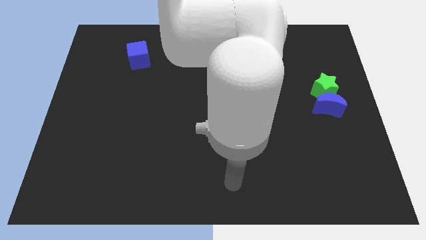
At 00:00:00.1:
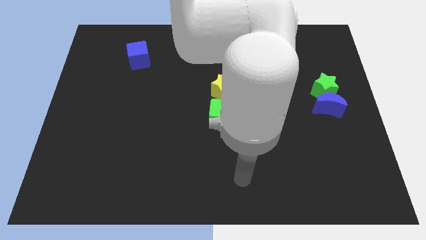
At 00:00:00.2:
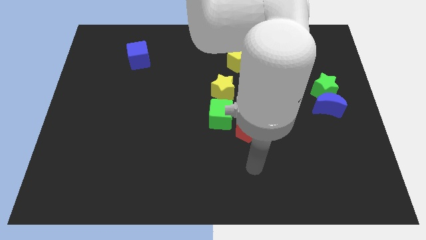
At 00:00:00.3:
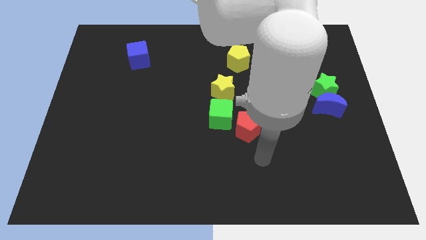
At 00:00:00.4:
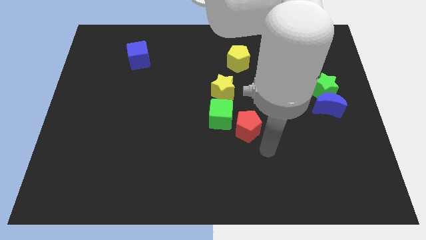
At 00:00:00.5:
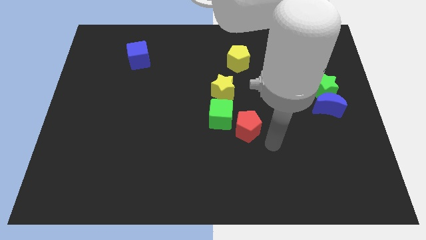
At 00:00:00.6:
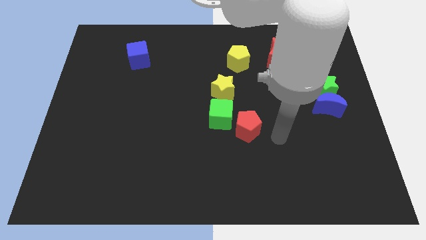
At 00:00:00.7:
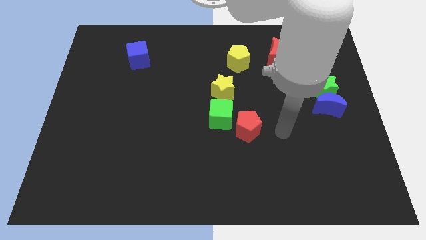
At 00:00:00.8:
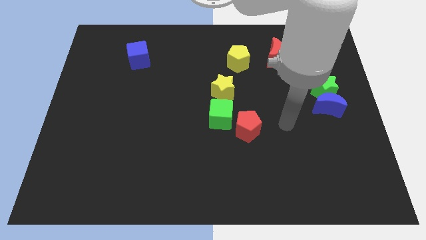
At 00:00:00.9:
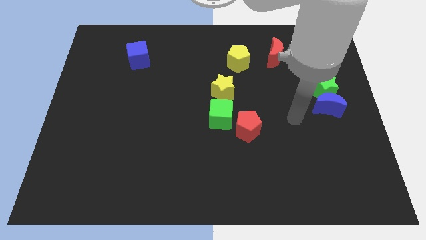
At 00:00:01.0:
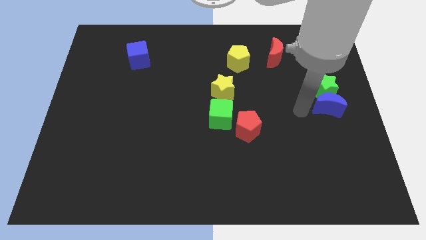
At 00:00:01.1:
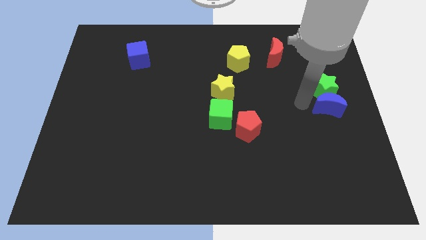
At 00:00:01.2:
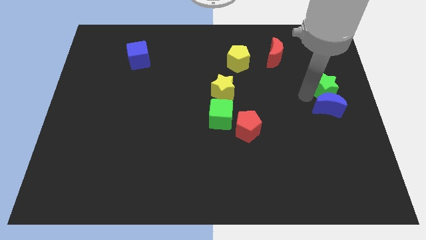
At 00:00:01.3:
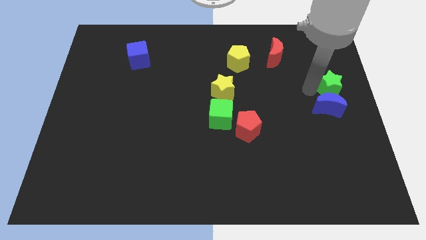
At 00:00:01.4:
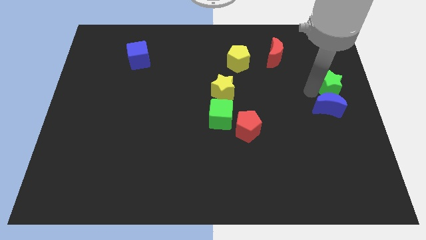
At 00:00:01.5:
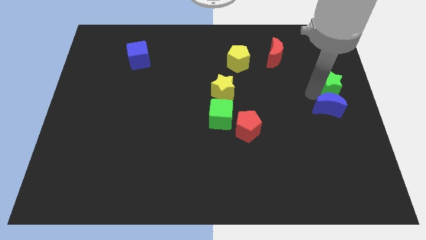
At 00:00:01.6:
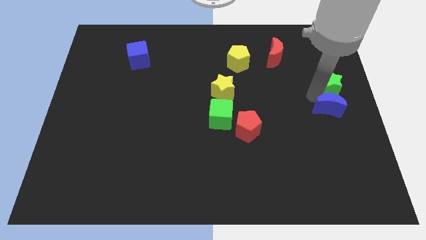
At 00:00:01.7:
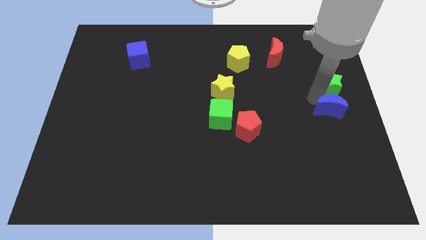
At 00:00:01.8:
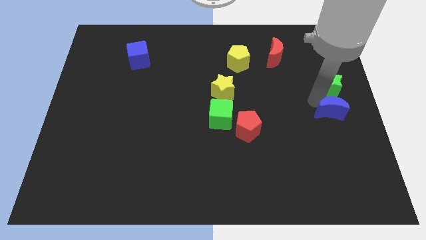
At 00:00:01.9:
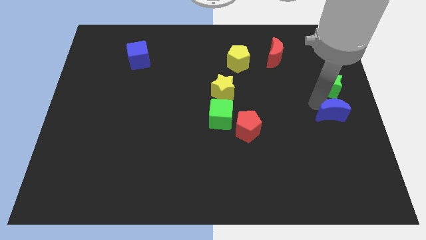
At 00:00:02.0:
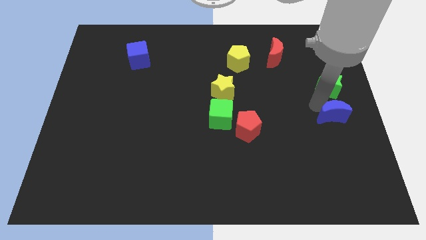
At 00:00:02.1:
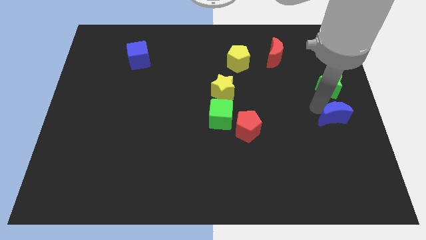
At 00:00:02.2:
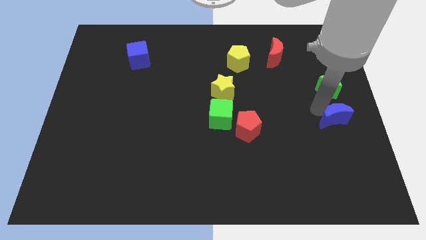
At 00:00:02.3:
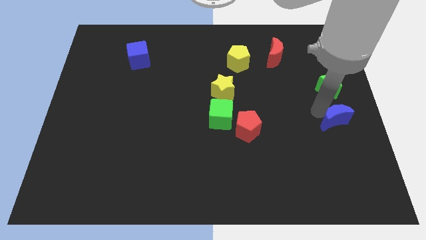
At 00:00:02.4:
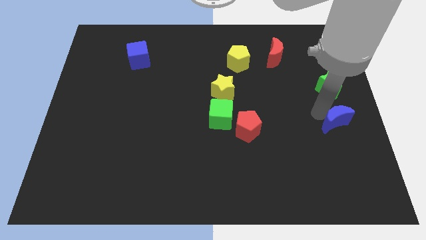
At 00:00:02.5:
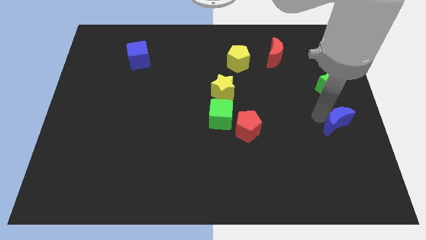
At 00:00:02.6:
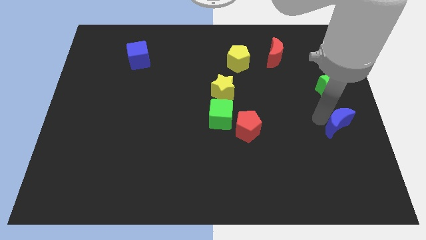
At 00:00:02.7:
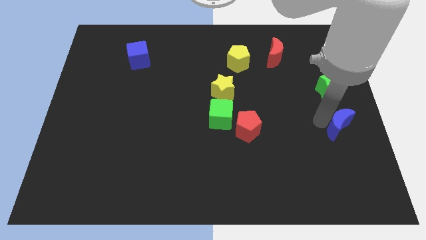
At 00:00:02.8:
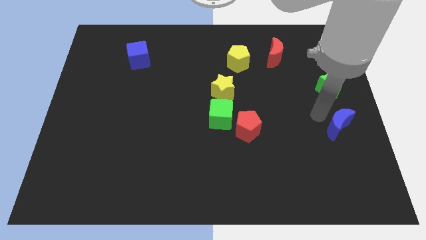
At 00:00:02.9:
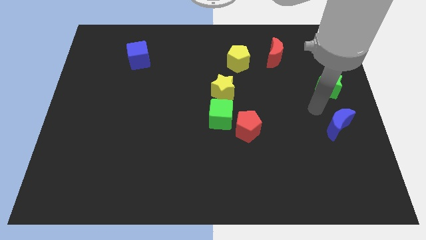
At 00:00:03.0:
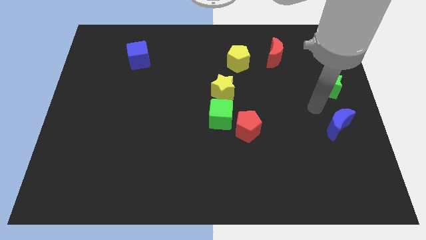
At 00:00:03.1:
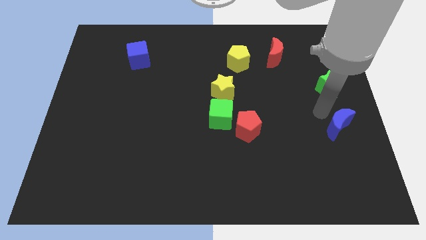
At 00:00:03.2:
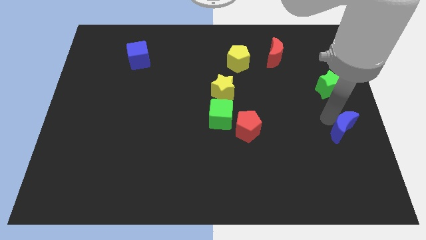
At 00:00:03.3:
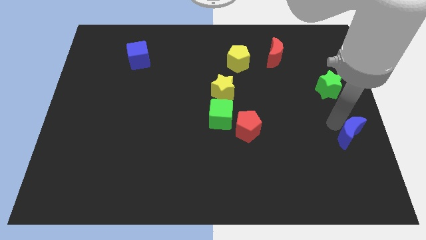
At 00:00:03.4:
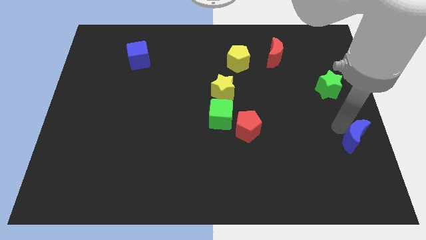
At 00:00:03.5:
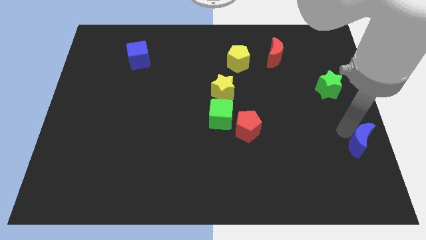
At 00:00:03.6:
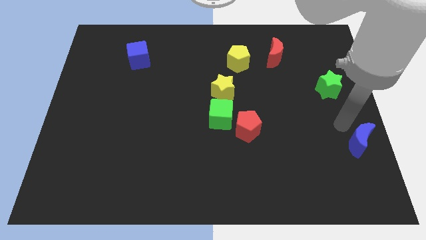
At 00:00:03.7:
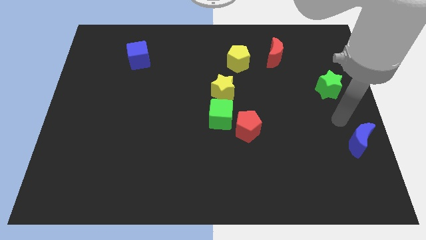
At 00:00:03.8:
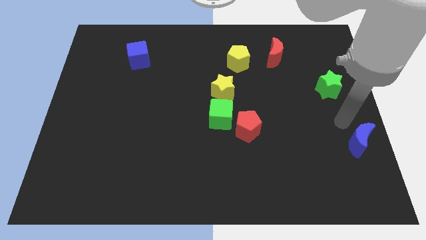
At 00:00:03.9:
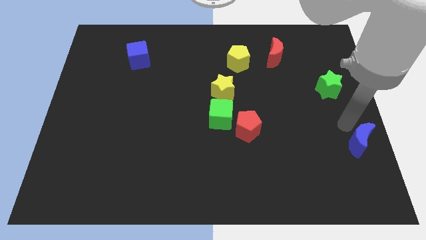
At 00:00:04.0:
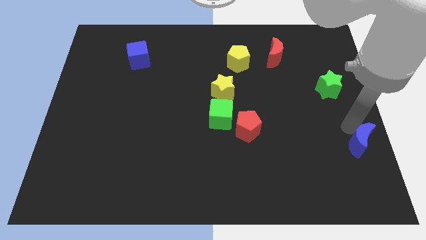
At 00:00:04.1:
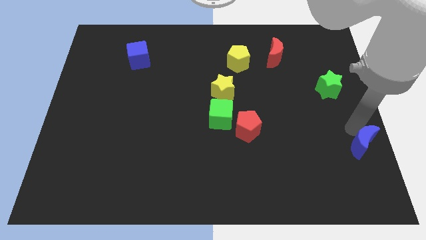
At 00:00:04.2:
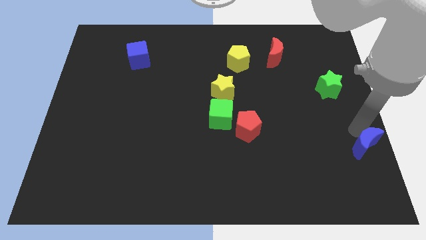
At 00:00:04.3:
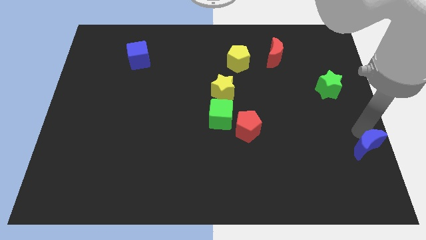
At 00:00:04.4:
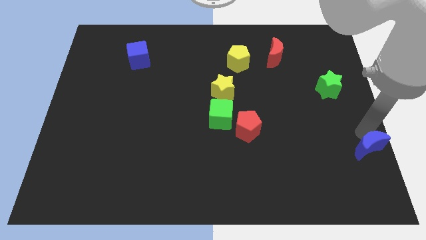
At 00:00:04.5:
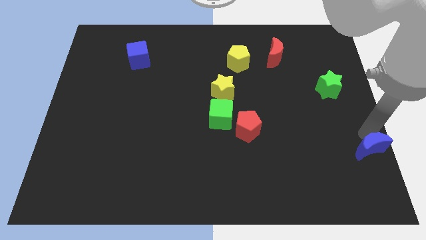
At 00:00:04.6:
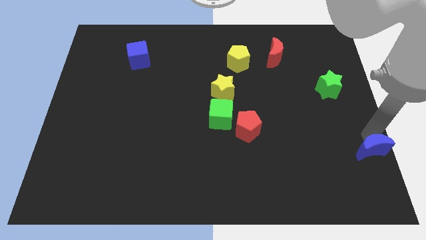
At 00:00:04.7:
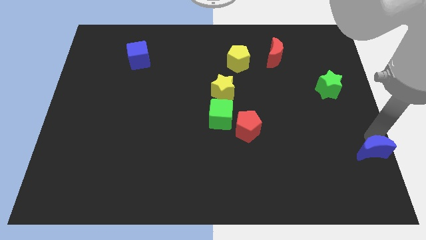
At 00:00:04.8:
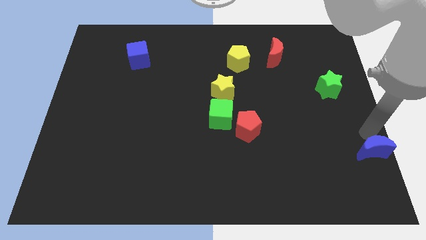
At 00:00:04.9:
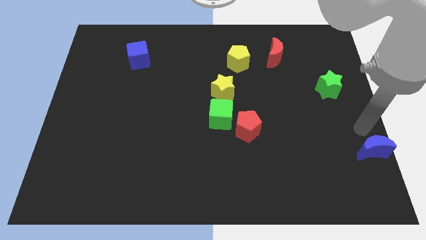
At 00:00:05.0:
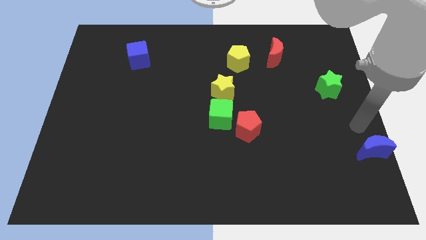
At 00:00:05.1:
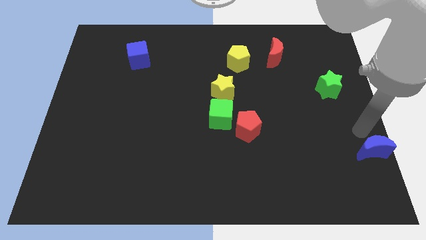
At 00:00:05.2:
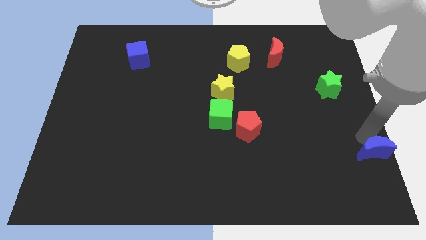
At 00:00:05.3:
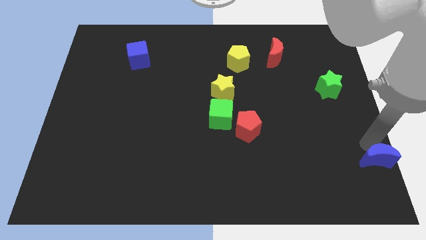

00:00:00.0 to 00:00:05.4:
put the blue moon to the bottom right of the board
